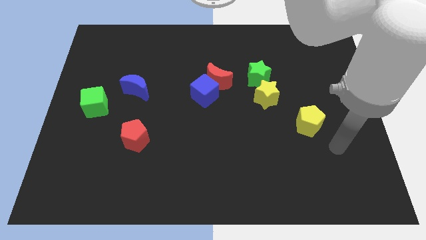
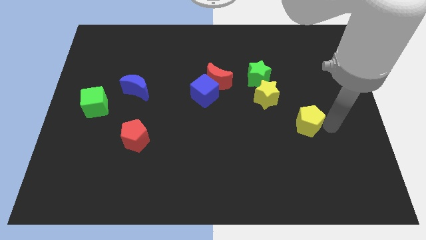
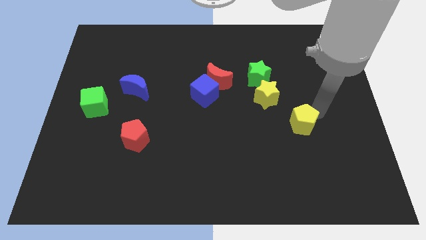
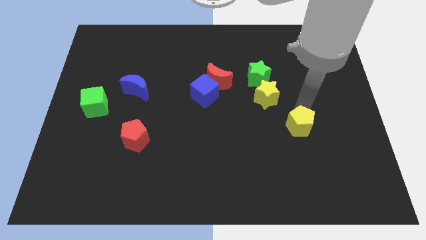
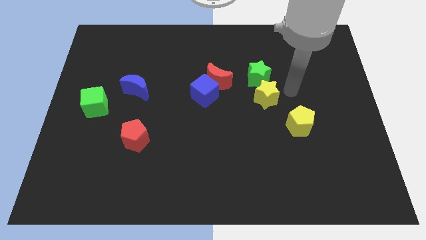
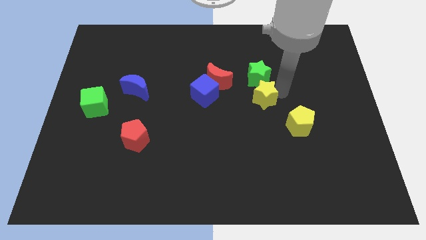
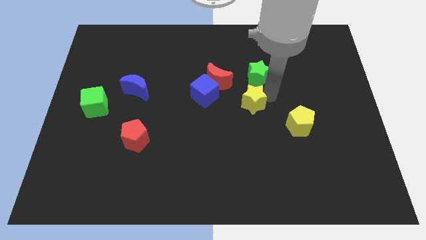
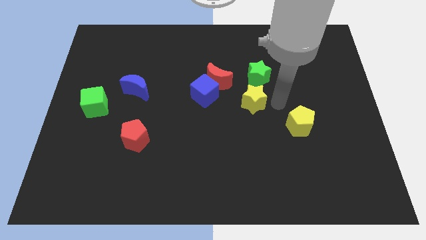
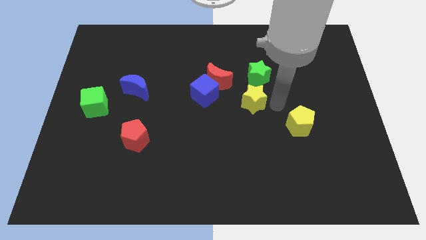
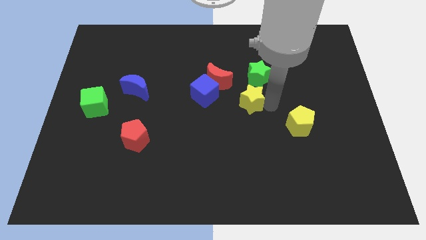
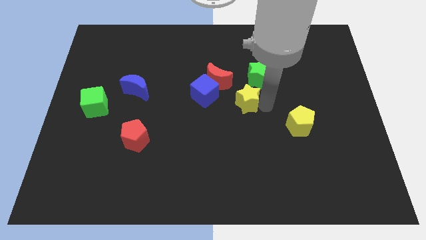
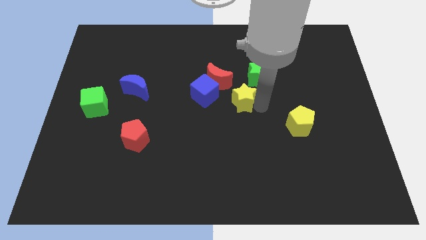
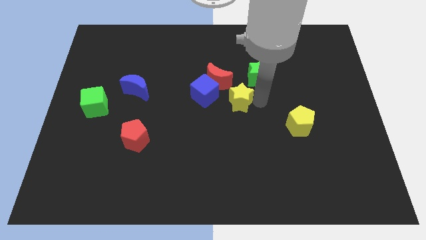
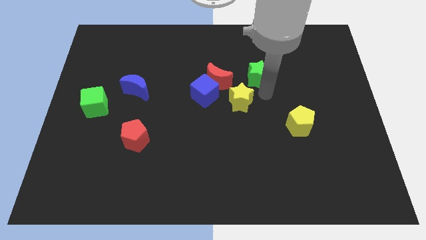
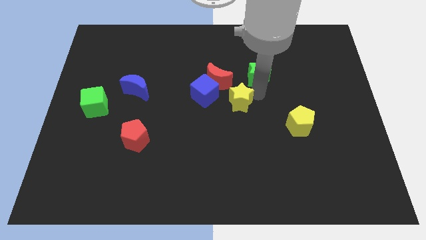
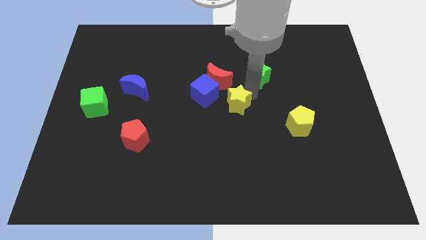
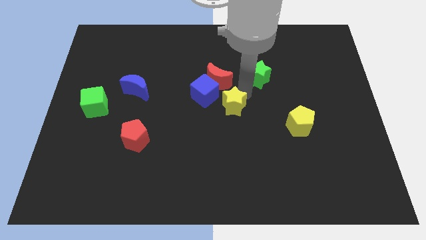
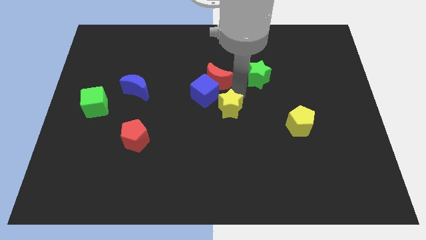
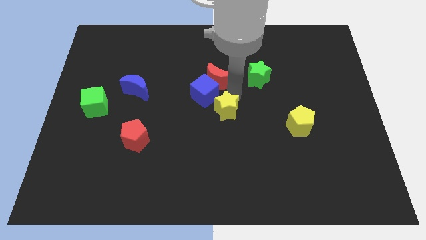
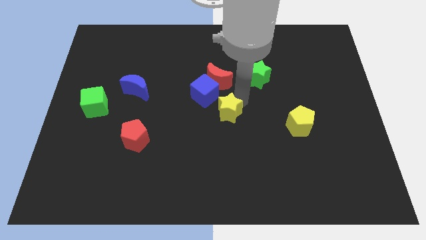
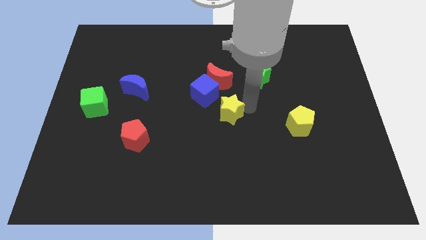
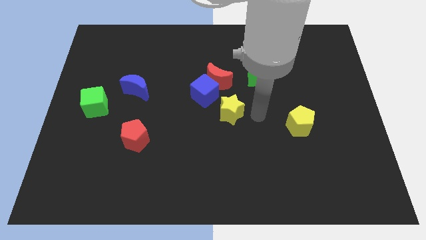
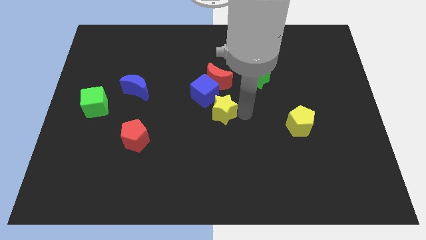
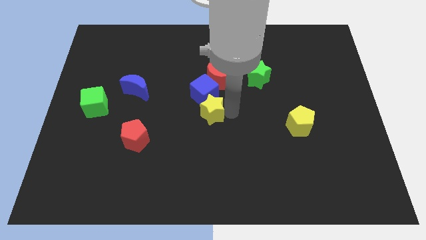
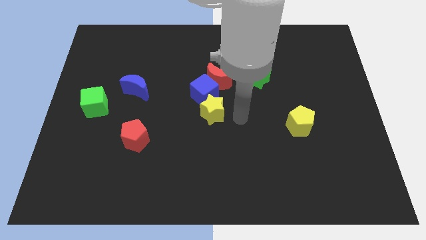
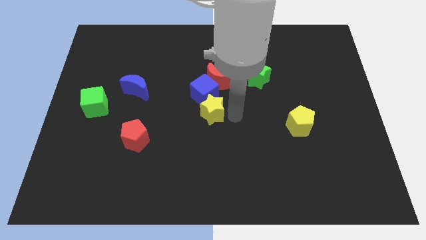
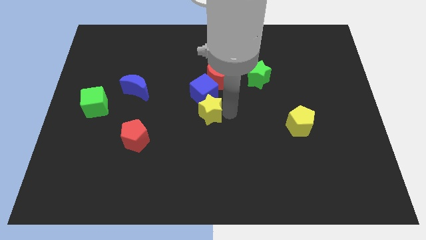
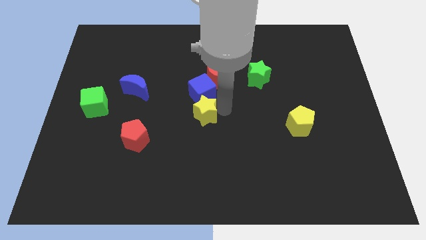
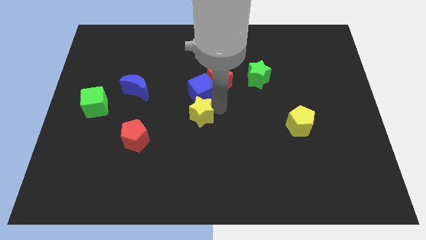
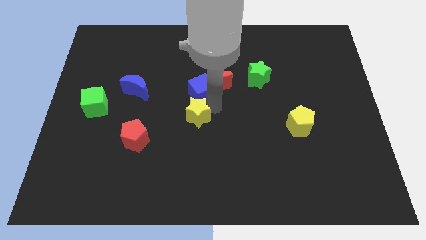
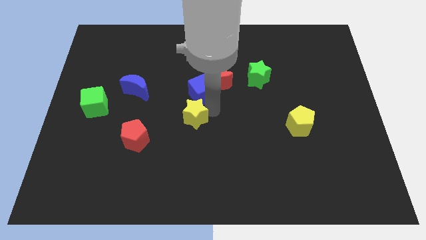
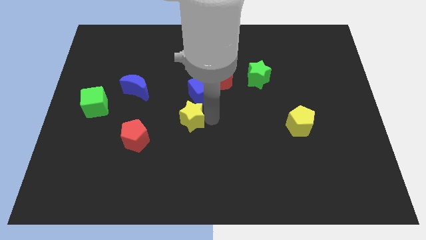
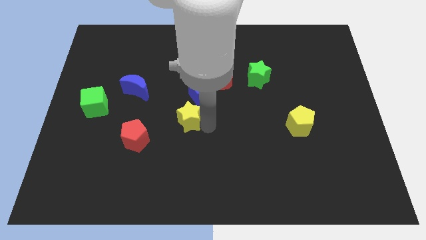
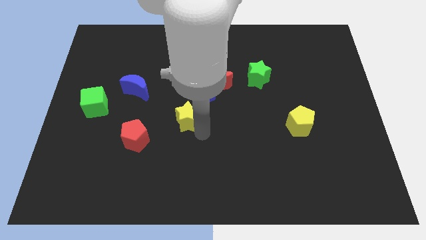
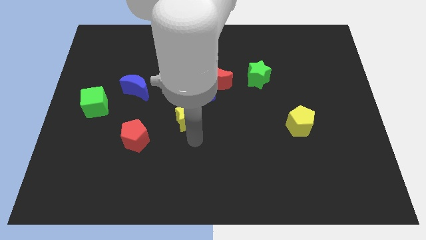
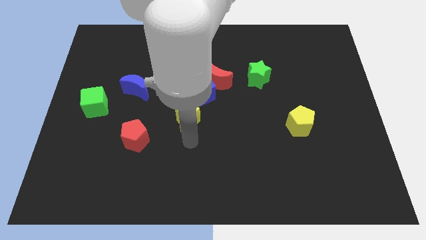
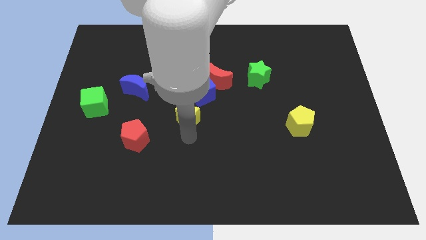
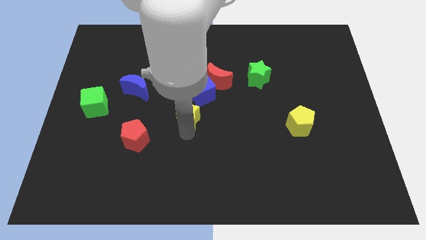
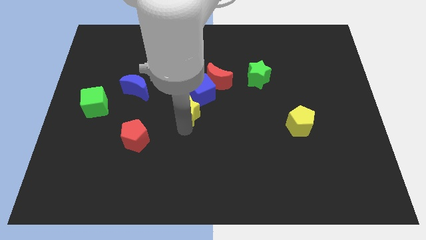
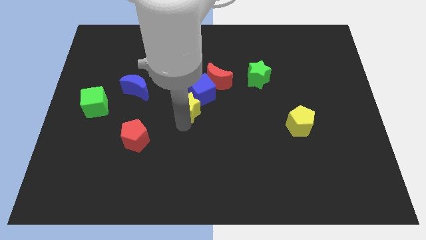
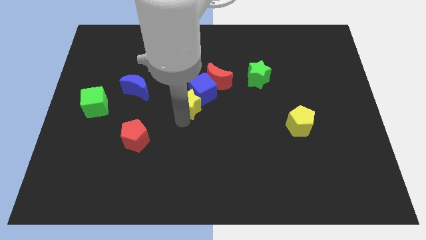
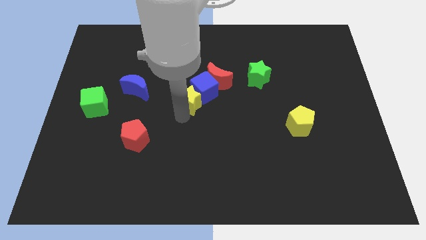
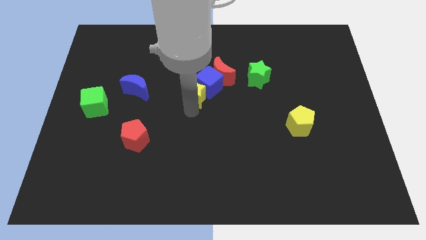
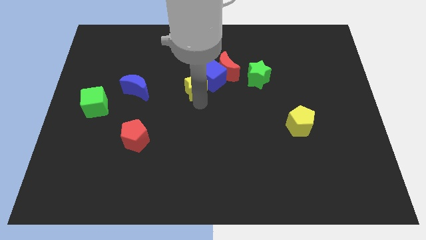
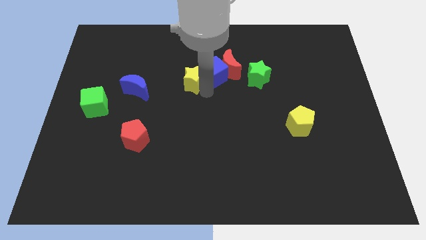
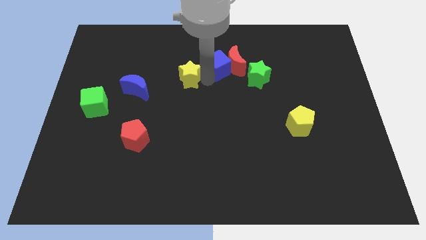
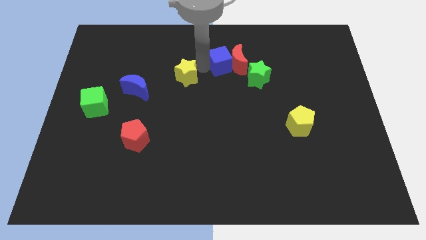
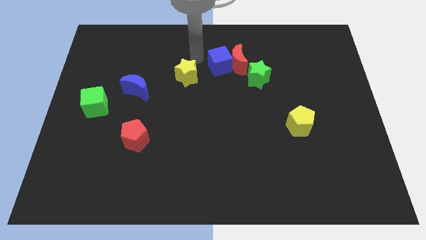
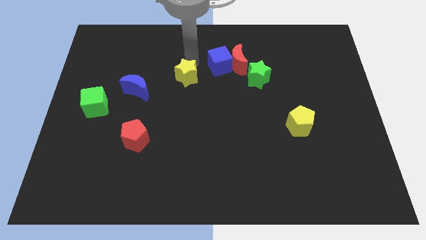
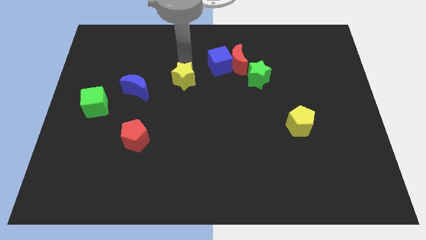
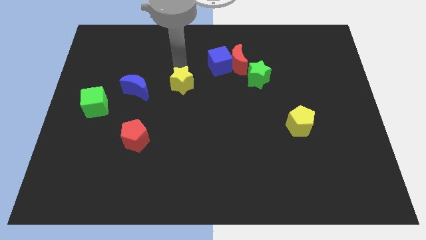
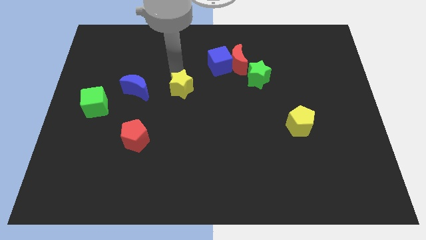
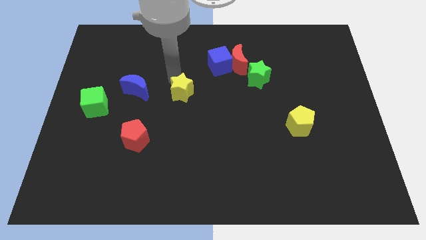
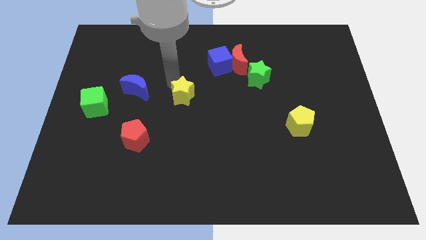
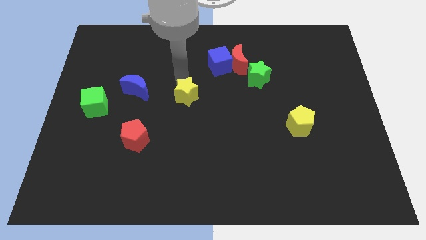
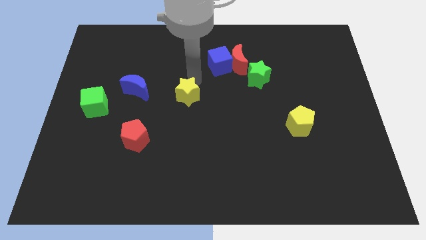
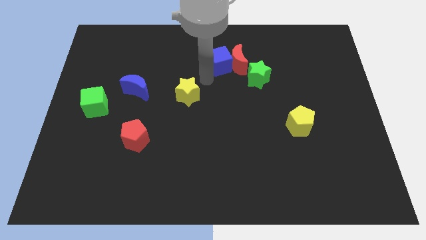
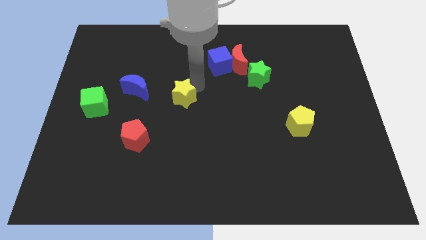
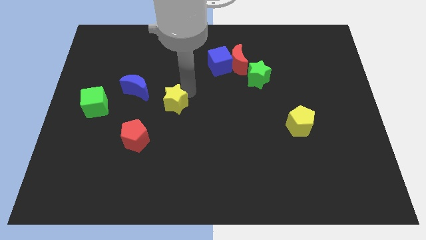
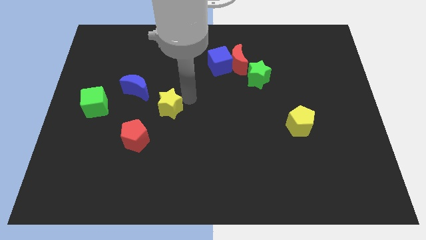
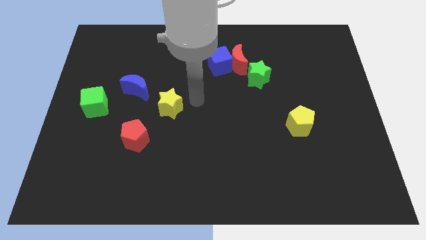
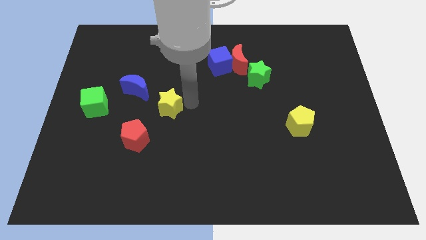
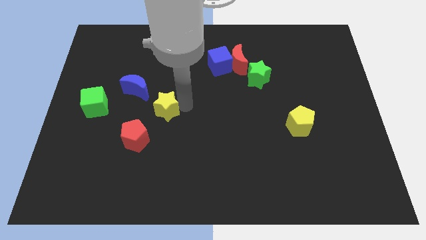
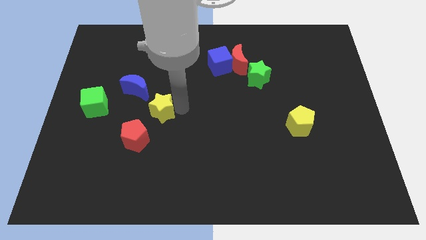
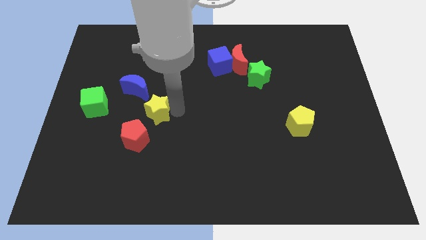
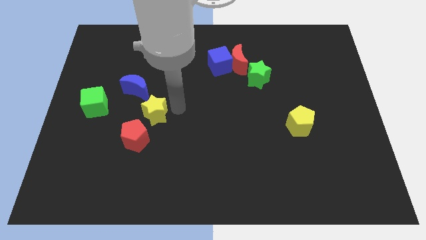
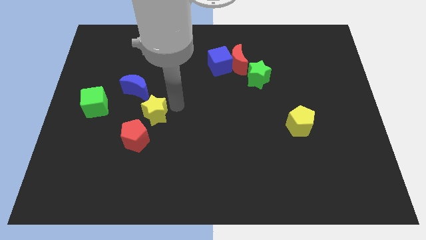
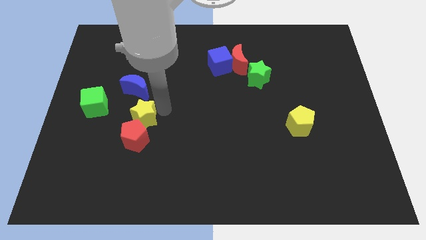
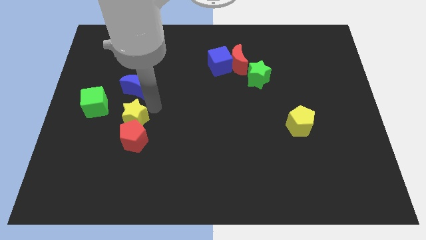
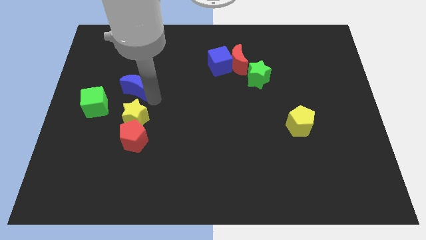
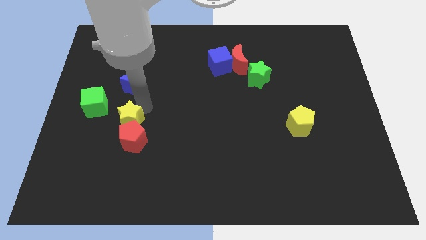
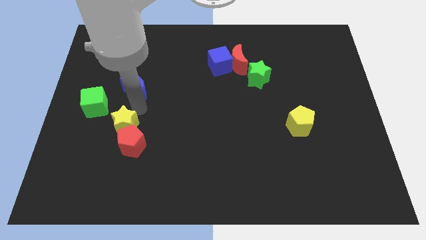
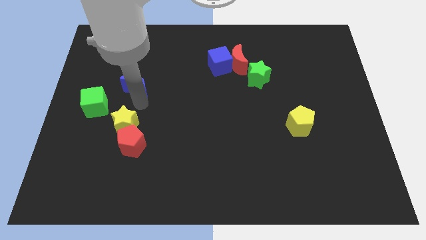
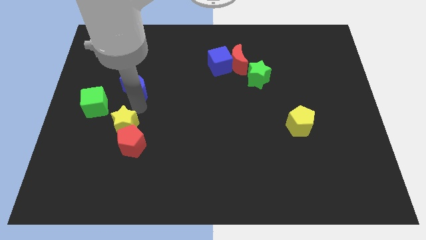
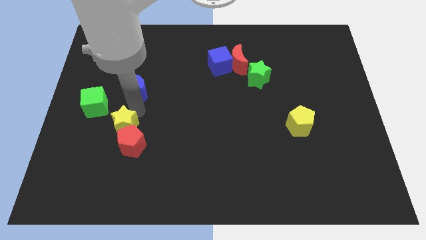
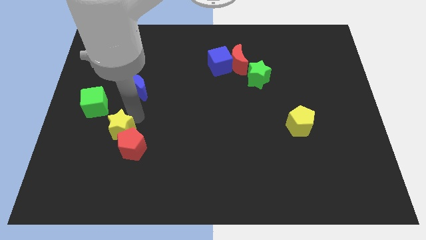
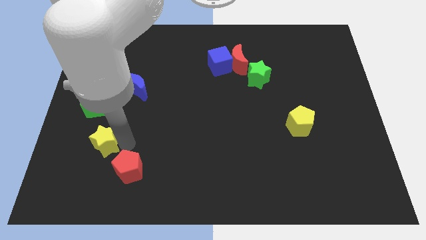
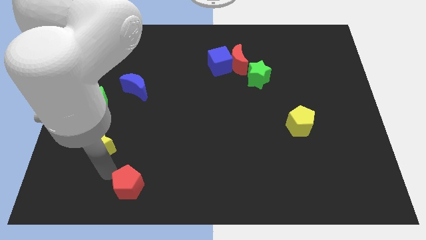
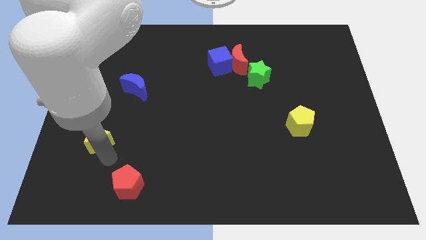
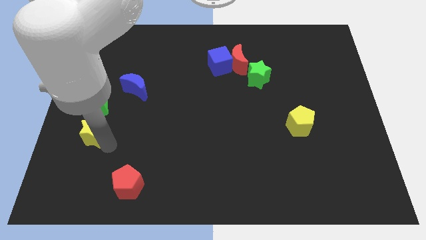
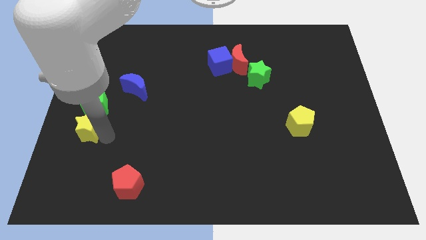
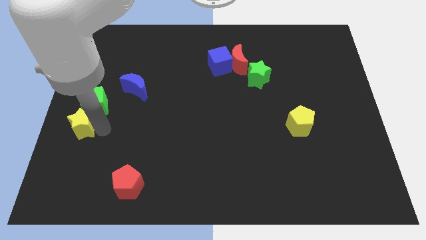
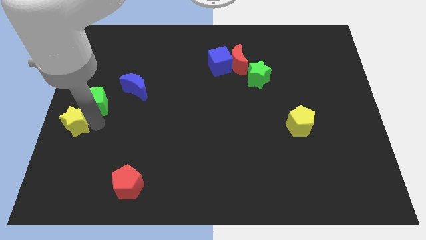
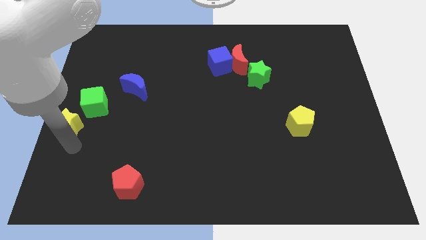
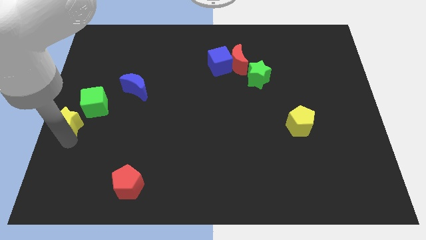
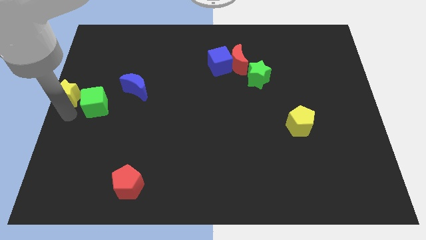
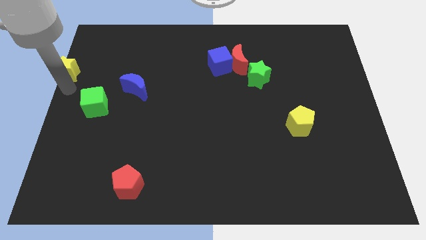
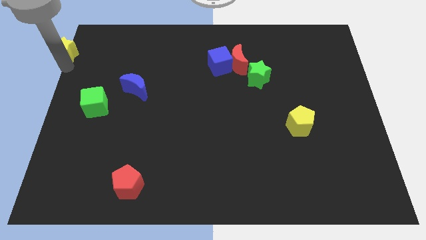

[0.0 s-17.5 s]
slide the yellow star to the top left
